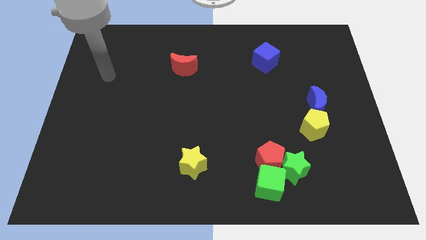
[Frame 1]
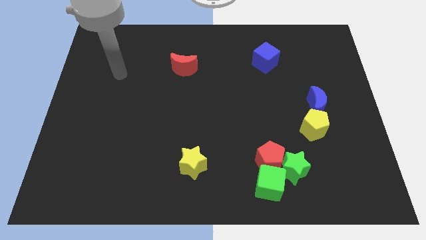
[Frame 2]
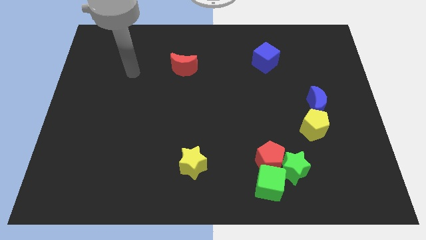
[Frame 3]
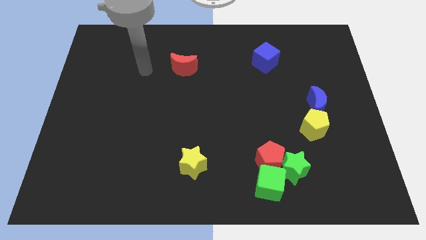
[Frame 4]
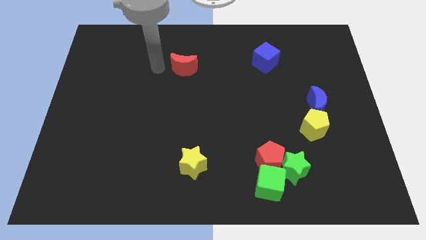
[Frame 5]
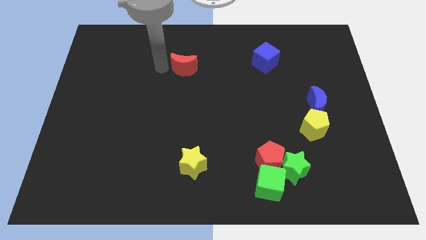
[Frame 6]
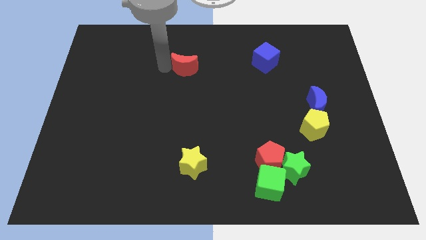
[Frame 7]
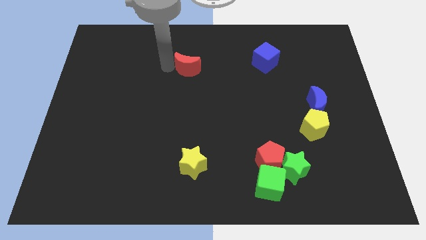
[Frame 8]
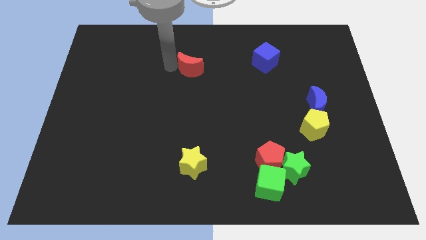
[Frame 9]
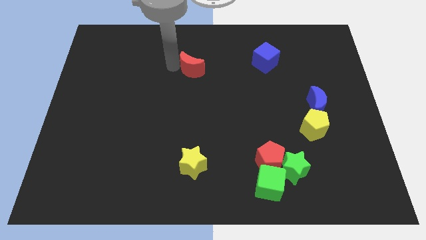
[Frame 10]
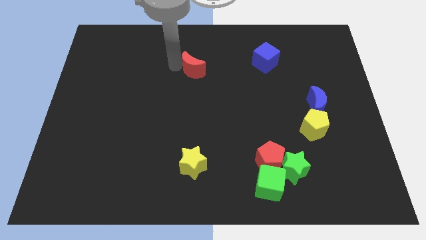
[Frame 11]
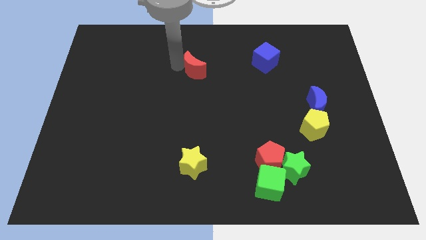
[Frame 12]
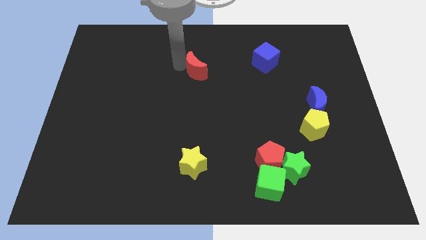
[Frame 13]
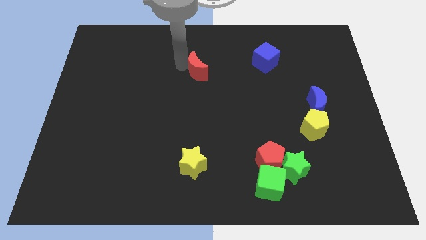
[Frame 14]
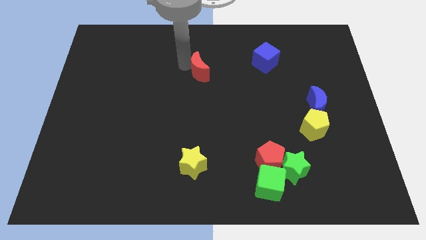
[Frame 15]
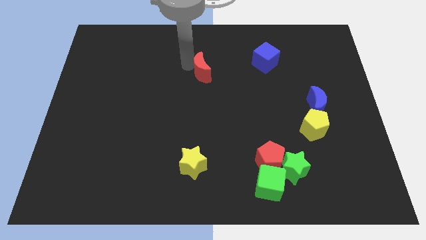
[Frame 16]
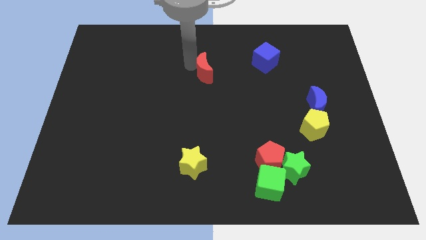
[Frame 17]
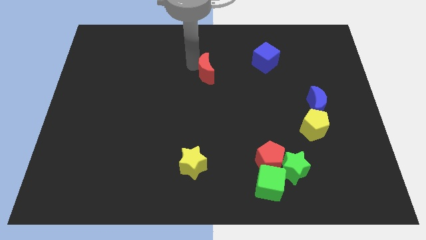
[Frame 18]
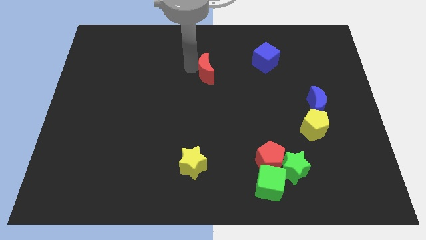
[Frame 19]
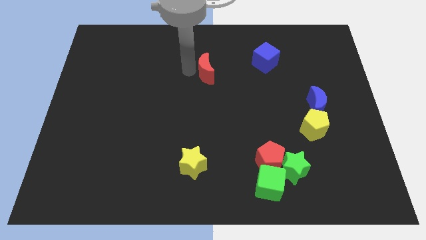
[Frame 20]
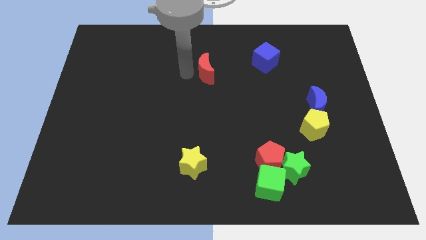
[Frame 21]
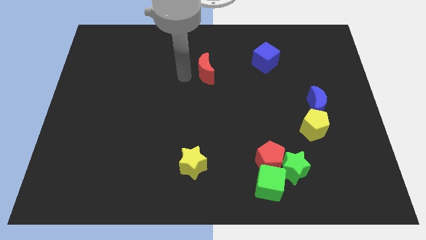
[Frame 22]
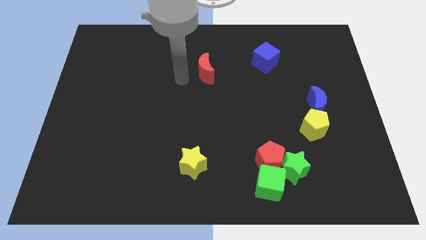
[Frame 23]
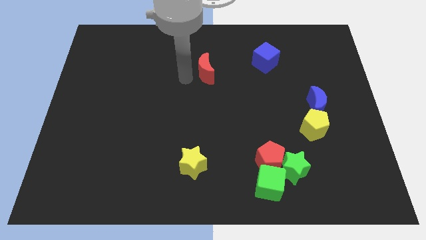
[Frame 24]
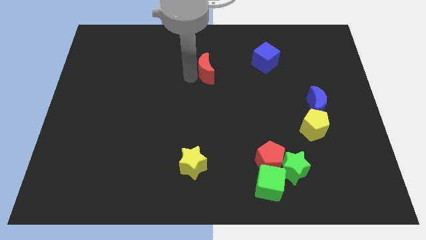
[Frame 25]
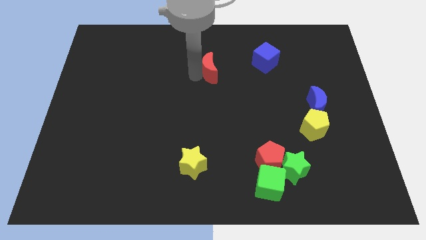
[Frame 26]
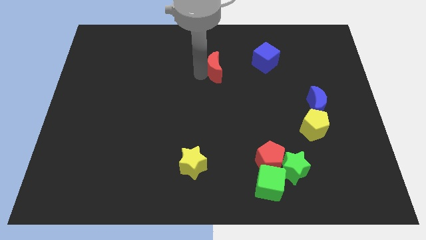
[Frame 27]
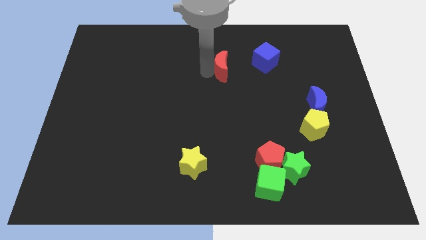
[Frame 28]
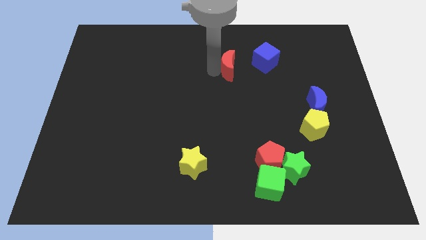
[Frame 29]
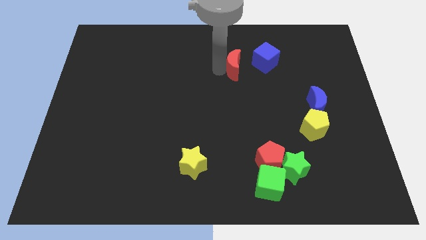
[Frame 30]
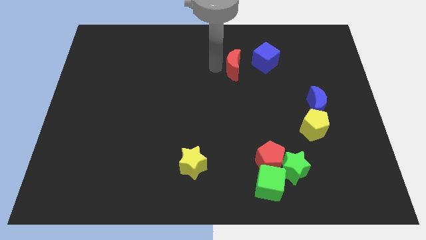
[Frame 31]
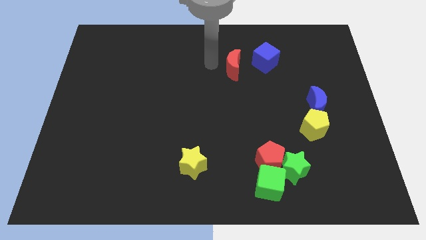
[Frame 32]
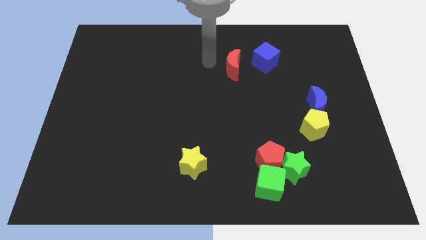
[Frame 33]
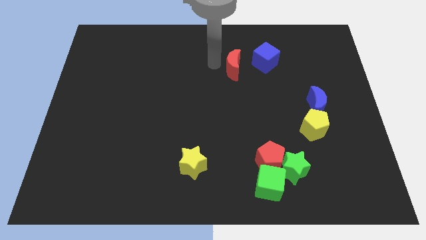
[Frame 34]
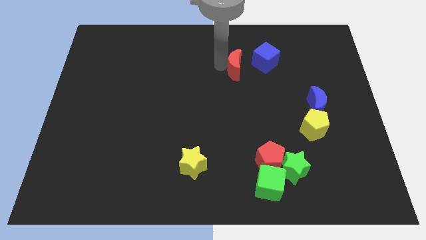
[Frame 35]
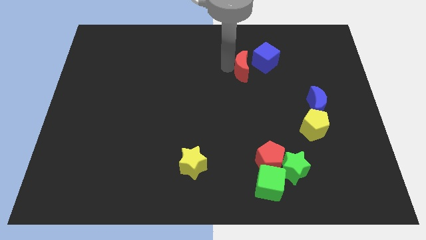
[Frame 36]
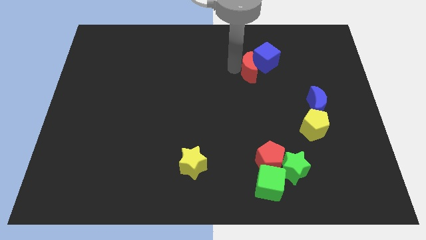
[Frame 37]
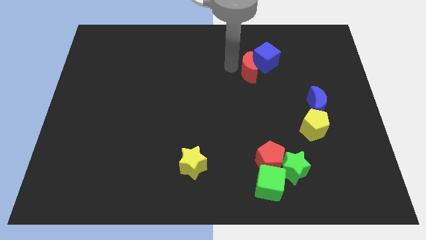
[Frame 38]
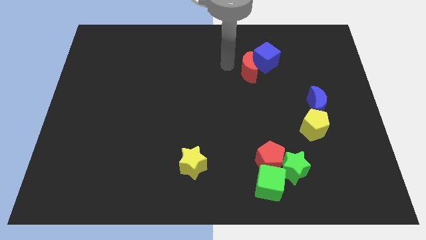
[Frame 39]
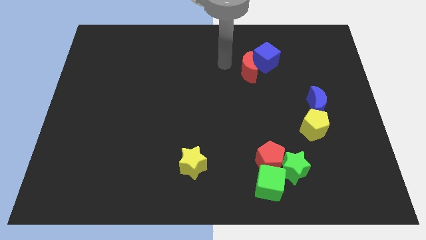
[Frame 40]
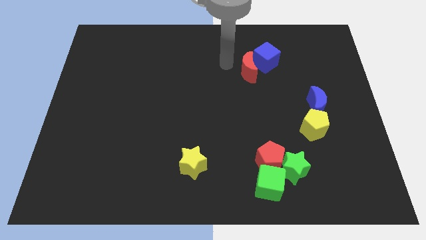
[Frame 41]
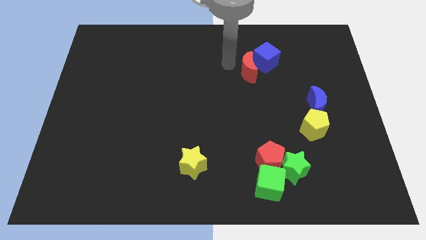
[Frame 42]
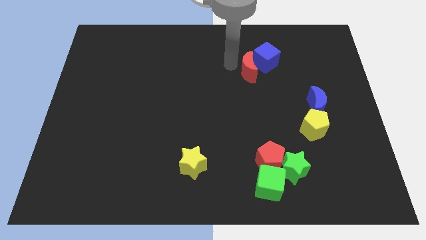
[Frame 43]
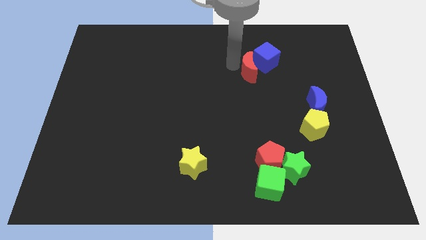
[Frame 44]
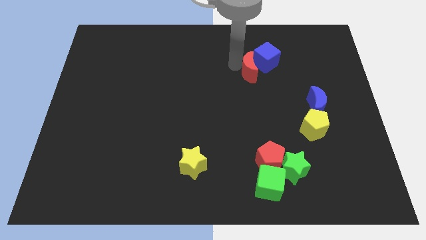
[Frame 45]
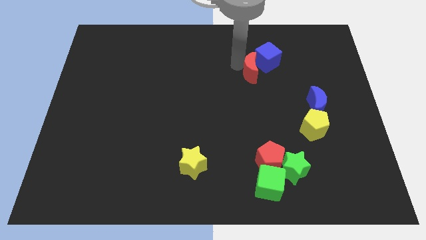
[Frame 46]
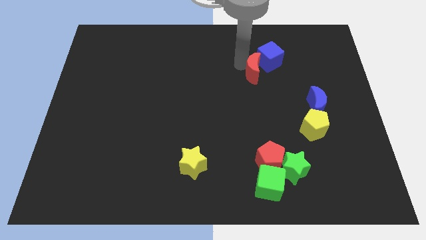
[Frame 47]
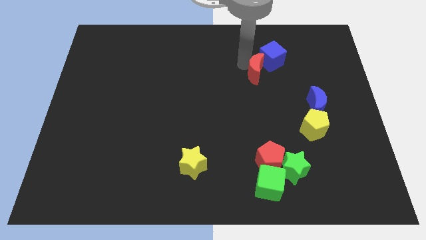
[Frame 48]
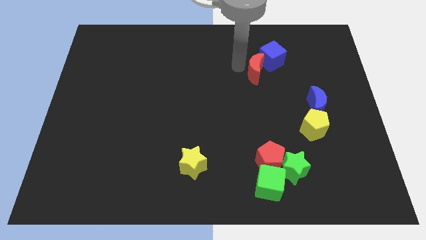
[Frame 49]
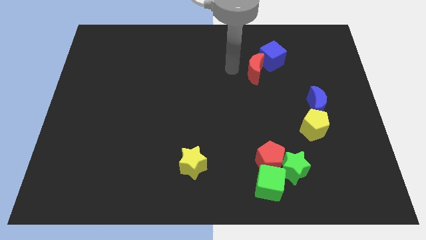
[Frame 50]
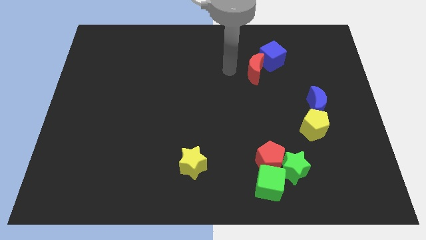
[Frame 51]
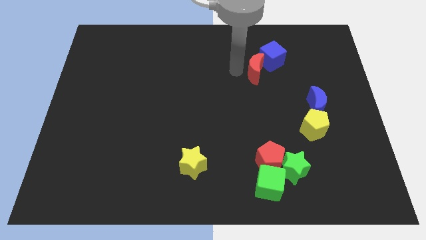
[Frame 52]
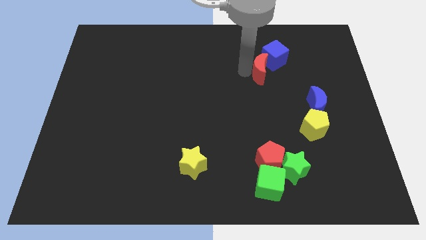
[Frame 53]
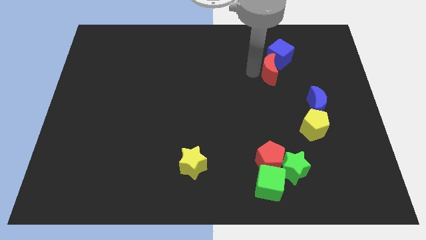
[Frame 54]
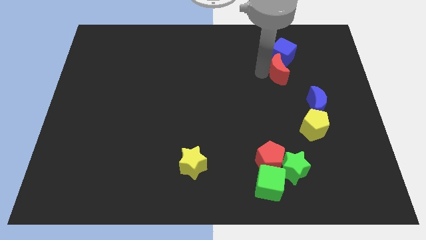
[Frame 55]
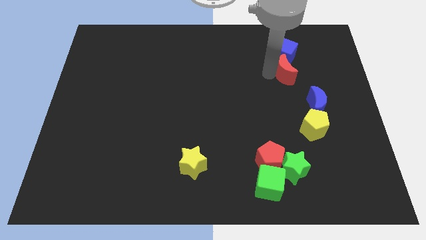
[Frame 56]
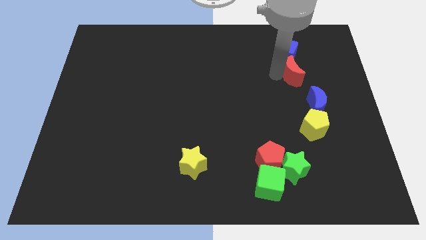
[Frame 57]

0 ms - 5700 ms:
push the red moon to the bottom right side of the blue cube

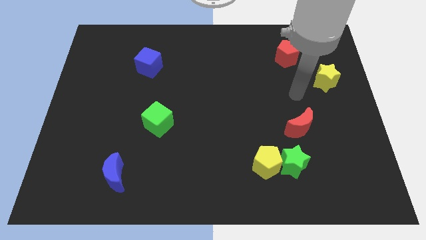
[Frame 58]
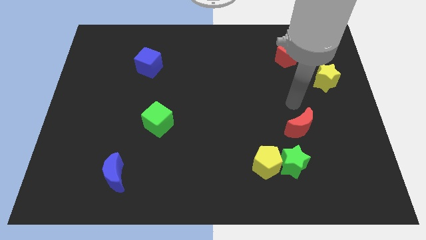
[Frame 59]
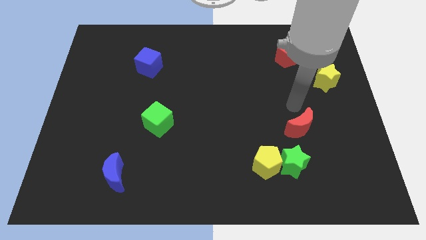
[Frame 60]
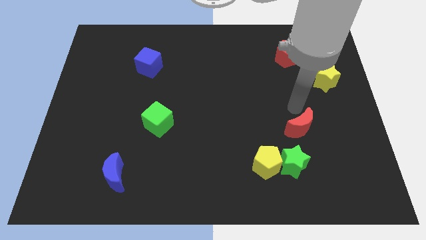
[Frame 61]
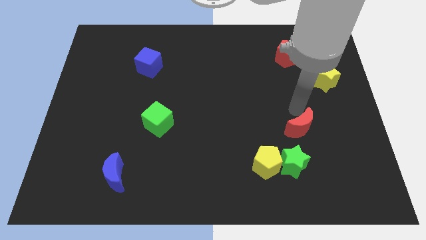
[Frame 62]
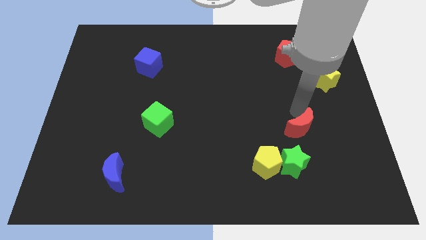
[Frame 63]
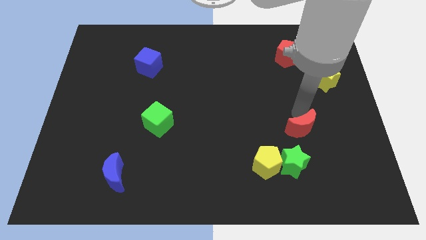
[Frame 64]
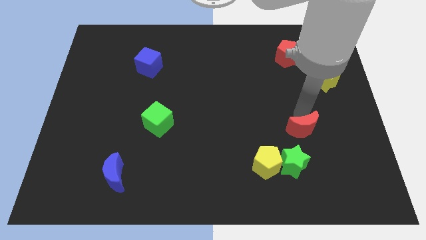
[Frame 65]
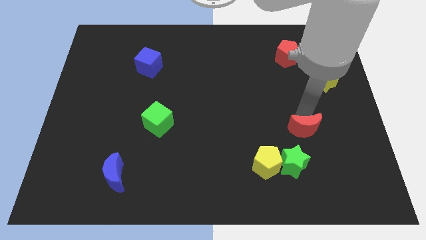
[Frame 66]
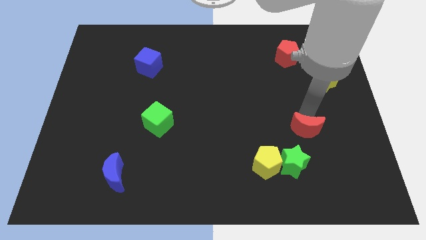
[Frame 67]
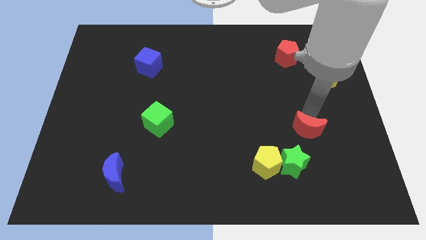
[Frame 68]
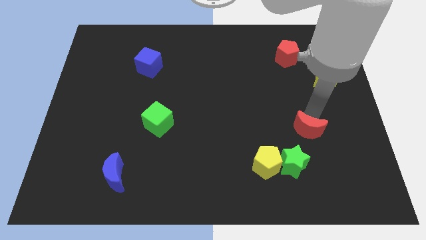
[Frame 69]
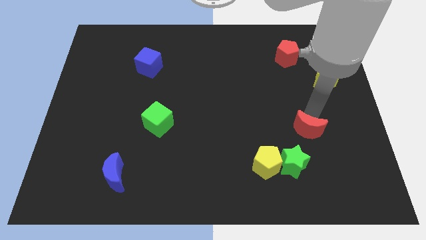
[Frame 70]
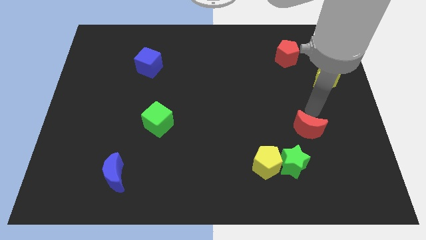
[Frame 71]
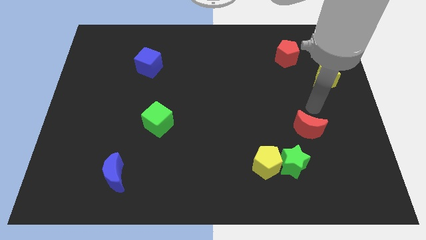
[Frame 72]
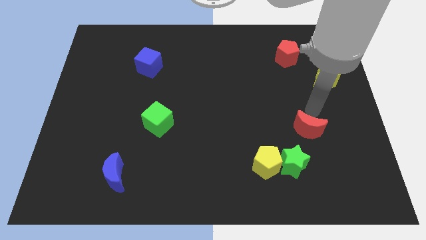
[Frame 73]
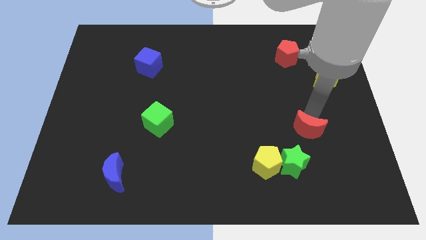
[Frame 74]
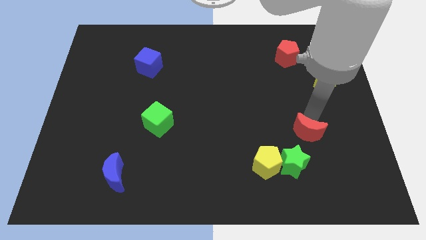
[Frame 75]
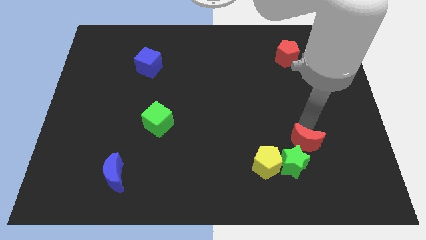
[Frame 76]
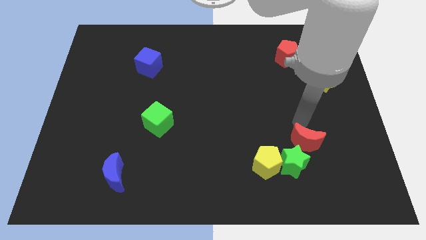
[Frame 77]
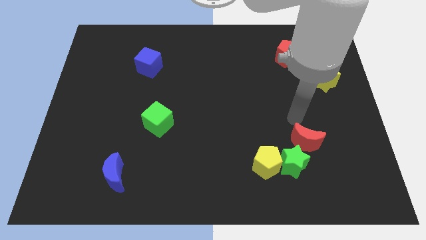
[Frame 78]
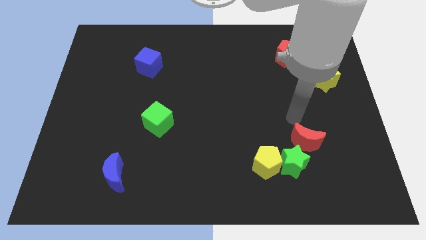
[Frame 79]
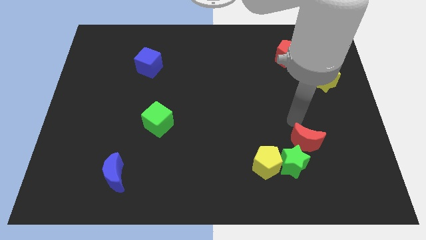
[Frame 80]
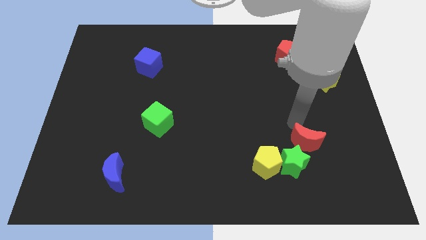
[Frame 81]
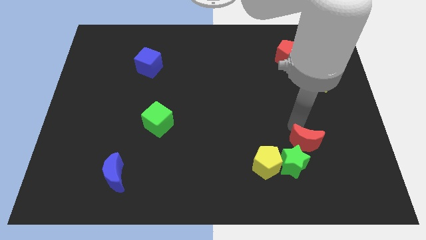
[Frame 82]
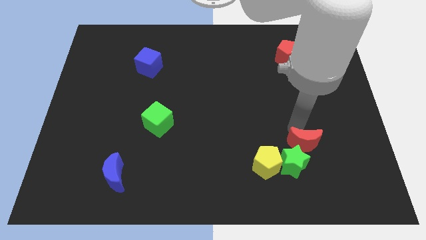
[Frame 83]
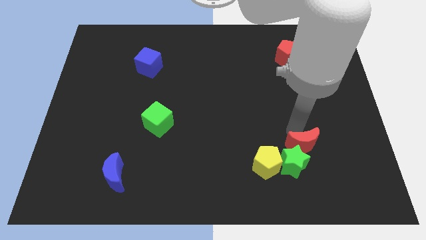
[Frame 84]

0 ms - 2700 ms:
push the red moon just right of the yellow pentagon
